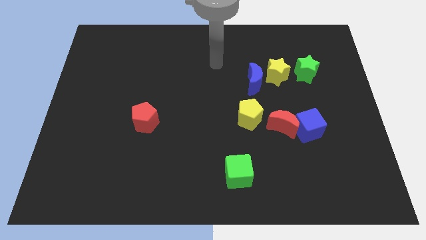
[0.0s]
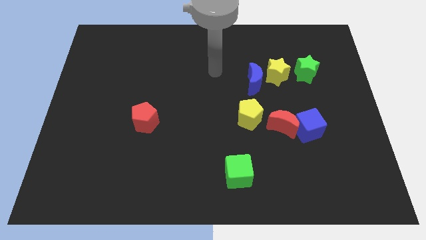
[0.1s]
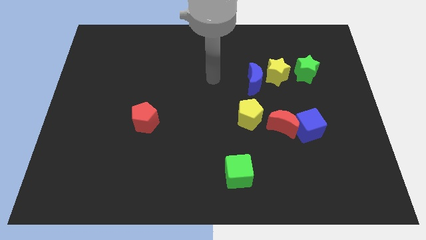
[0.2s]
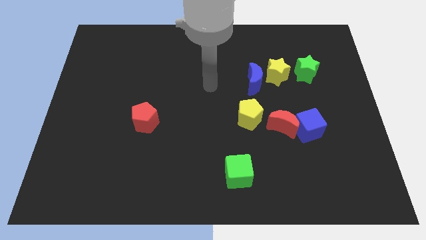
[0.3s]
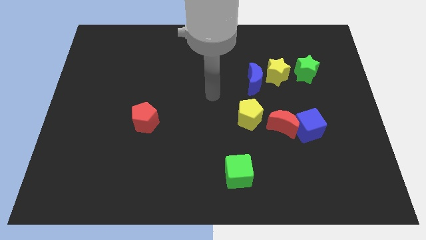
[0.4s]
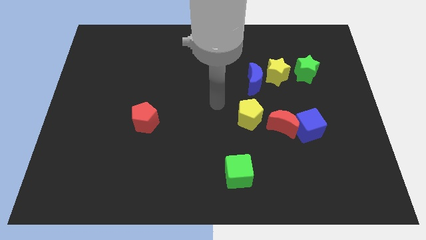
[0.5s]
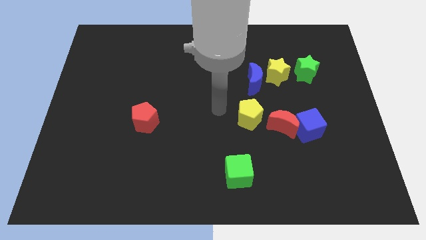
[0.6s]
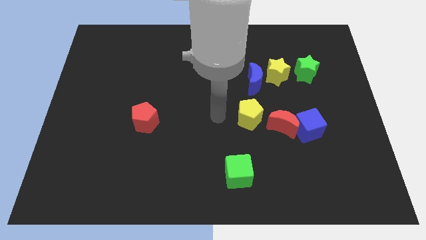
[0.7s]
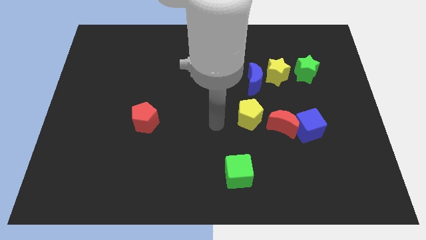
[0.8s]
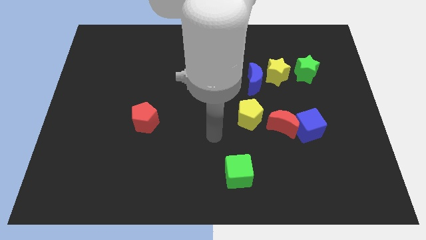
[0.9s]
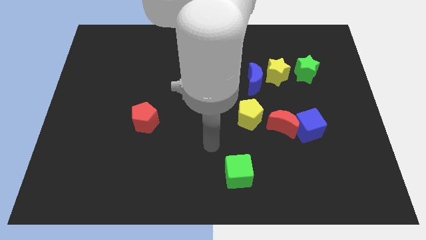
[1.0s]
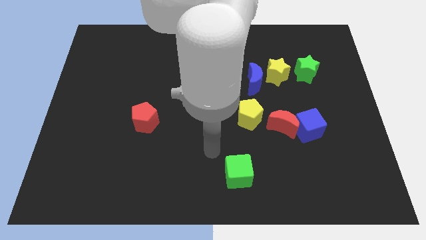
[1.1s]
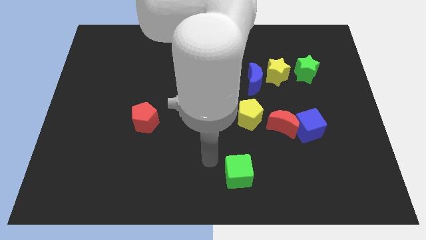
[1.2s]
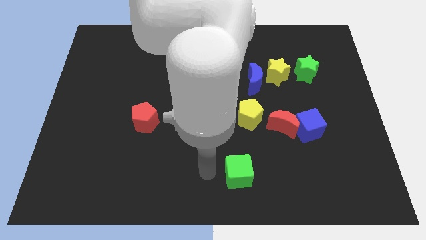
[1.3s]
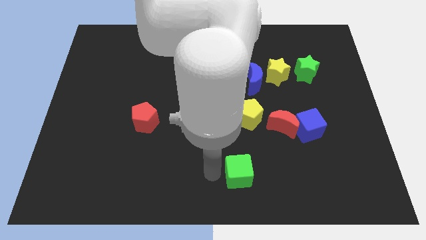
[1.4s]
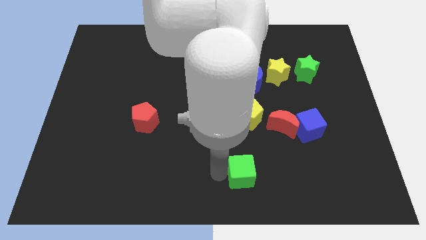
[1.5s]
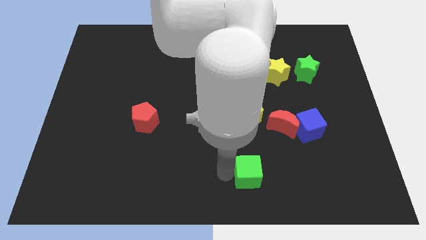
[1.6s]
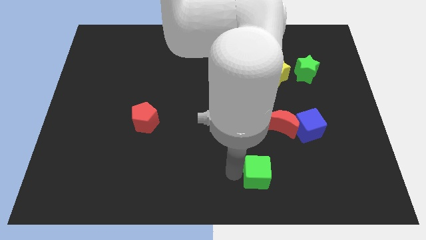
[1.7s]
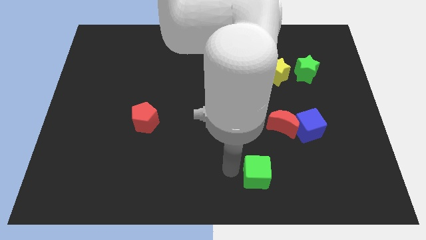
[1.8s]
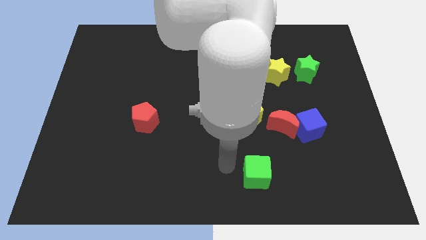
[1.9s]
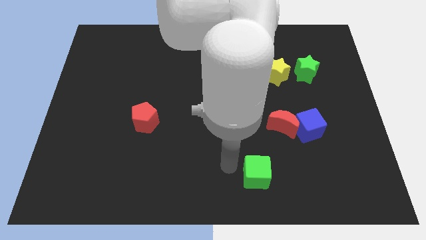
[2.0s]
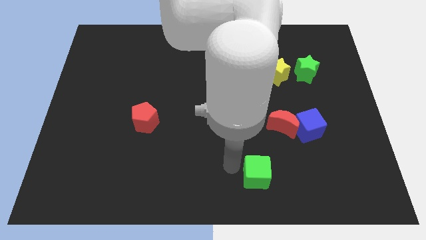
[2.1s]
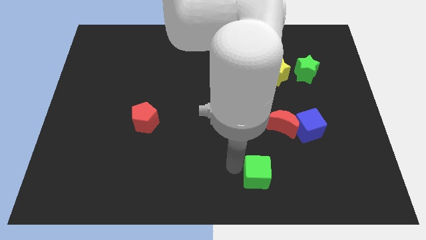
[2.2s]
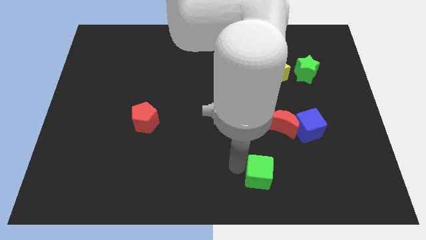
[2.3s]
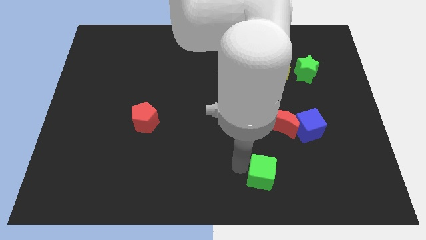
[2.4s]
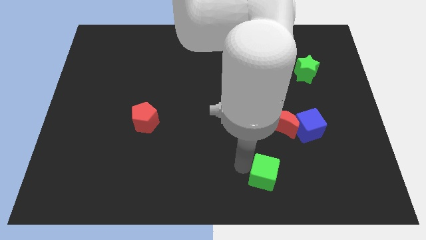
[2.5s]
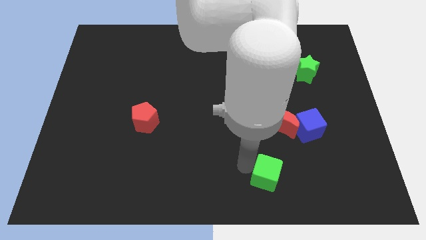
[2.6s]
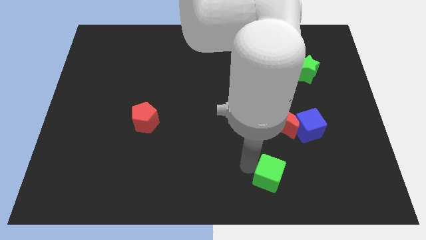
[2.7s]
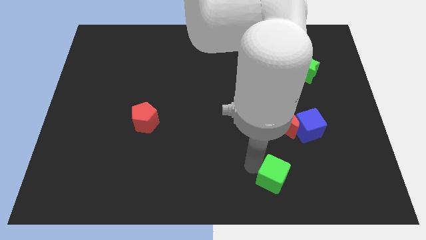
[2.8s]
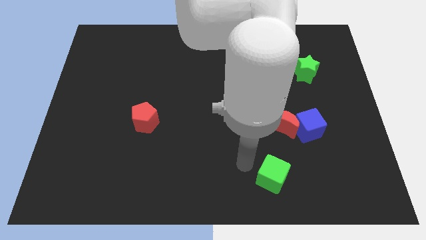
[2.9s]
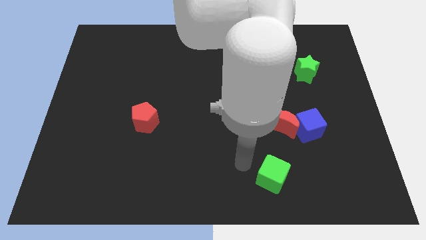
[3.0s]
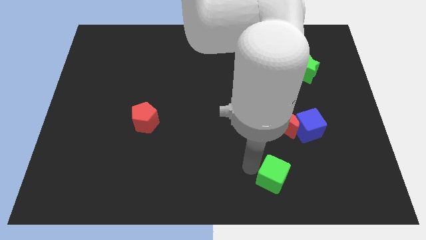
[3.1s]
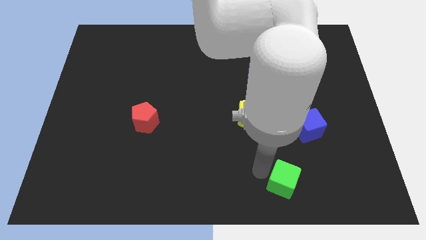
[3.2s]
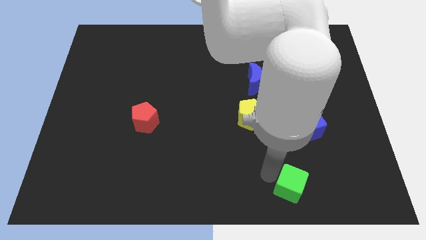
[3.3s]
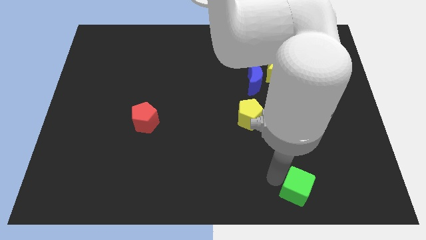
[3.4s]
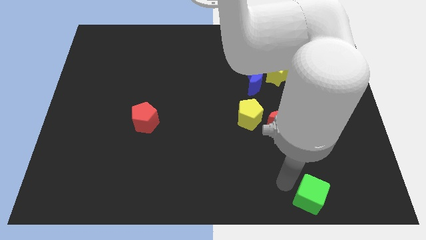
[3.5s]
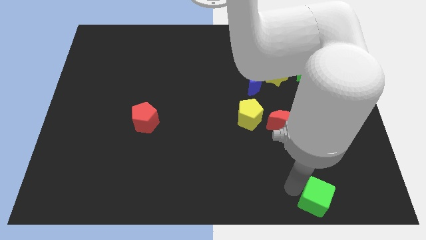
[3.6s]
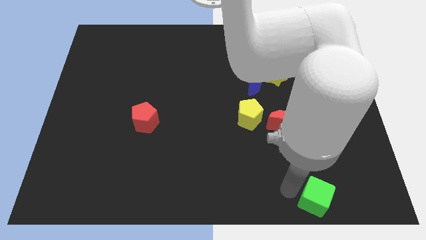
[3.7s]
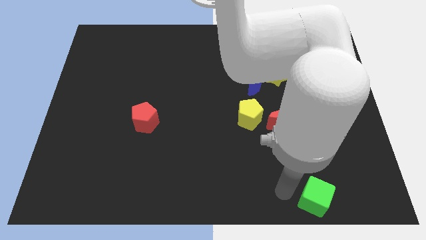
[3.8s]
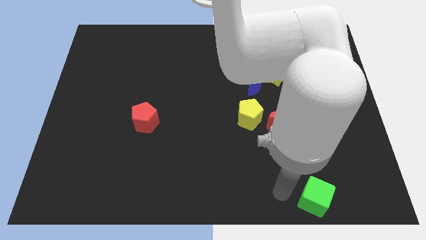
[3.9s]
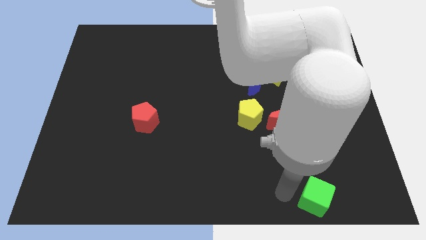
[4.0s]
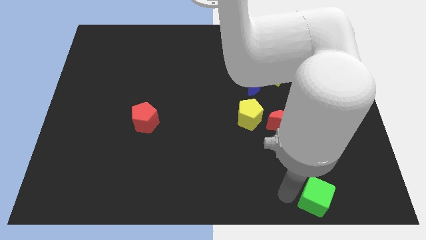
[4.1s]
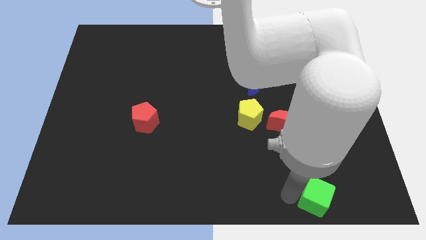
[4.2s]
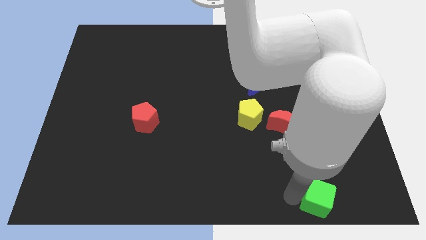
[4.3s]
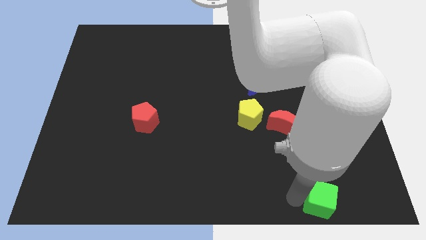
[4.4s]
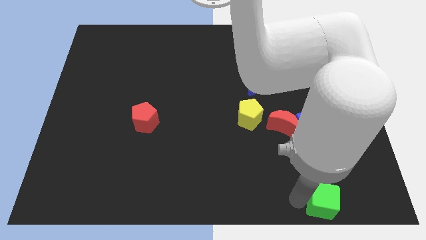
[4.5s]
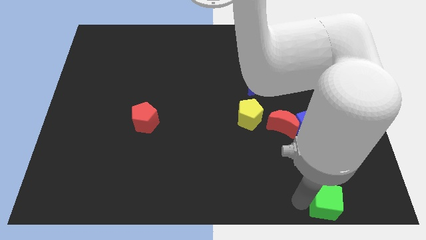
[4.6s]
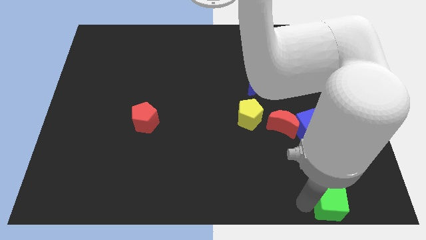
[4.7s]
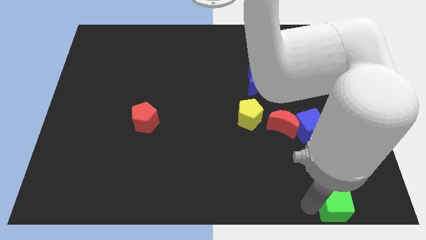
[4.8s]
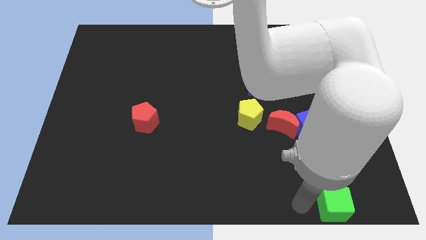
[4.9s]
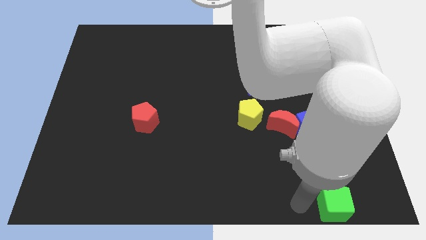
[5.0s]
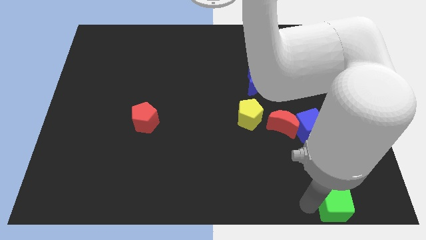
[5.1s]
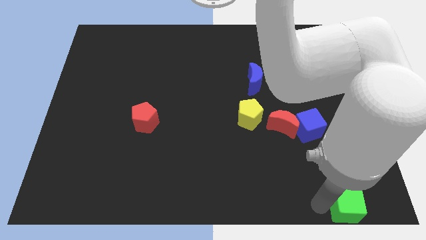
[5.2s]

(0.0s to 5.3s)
slide the green cube to the bottom right corner
